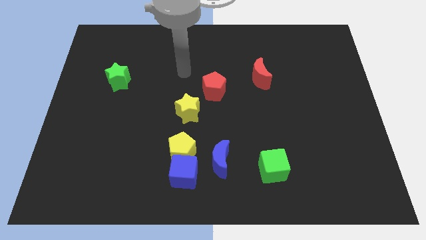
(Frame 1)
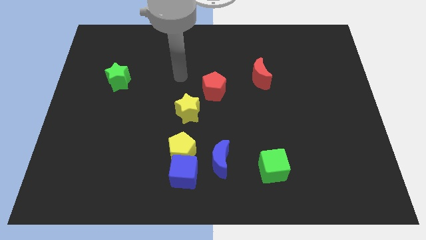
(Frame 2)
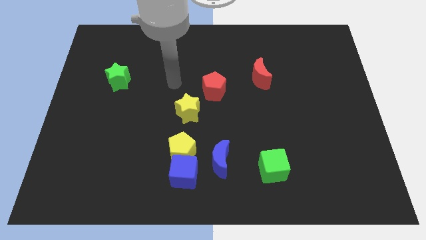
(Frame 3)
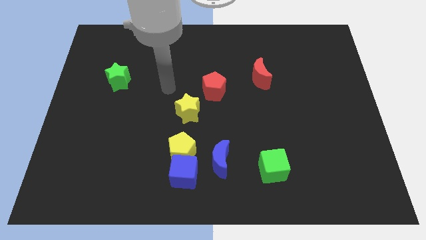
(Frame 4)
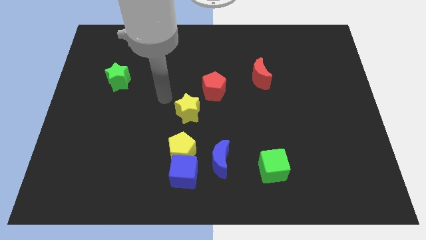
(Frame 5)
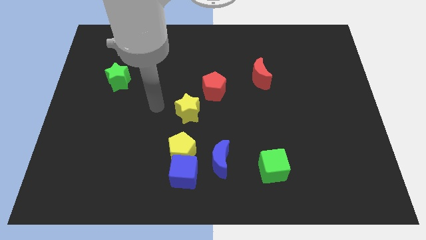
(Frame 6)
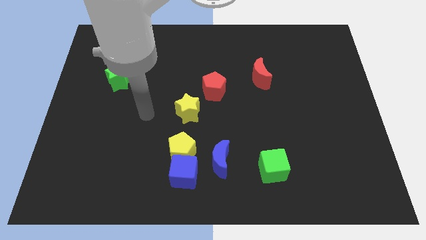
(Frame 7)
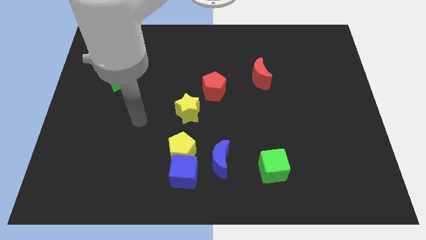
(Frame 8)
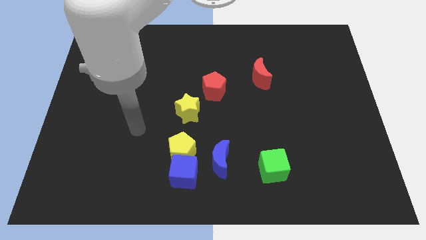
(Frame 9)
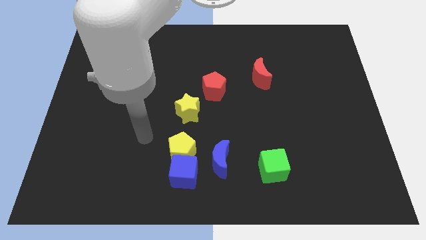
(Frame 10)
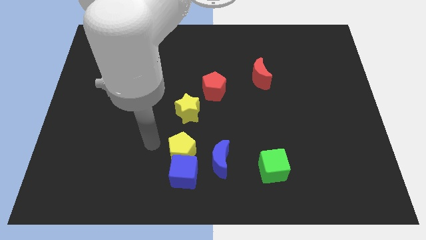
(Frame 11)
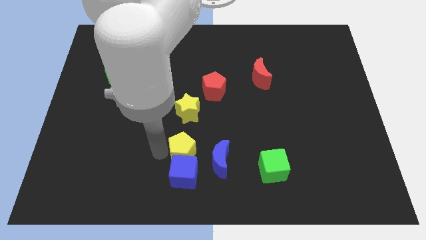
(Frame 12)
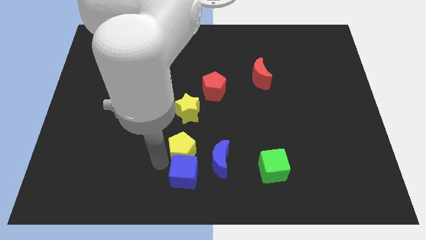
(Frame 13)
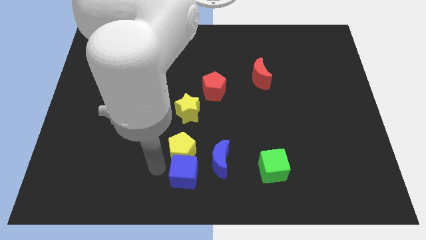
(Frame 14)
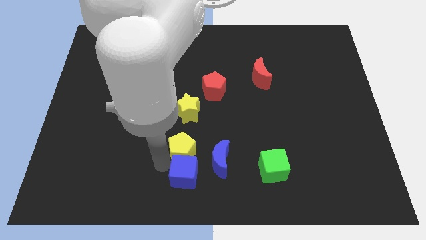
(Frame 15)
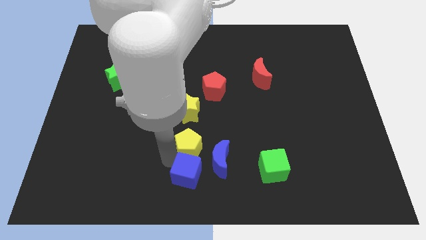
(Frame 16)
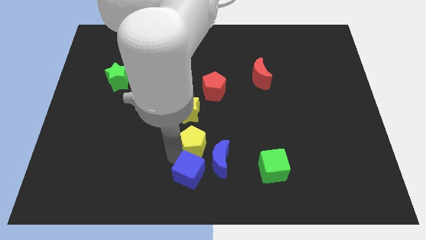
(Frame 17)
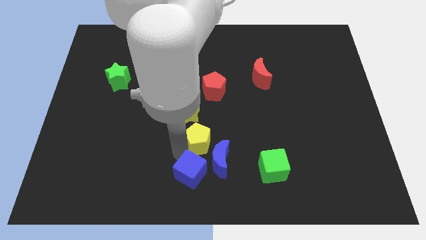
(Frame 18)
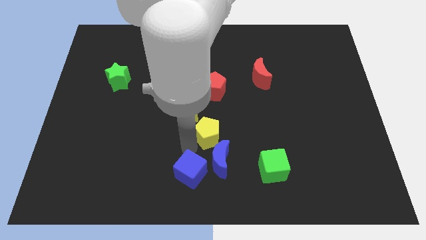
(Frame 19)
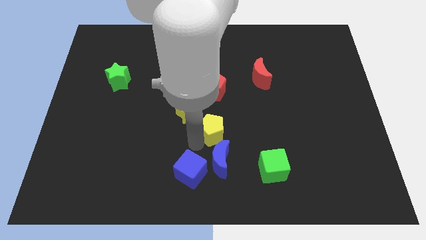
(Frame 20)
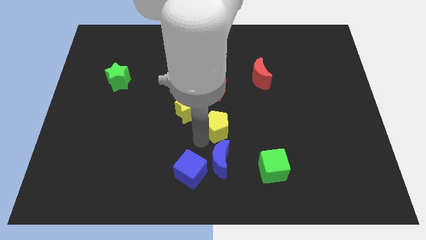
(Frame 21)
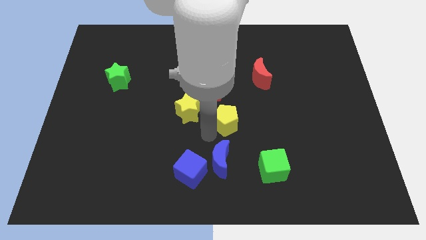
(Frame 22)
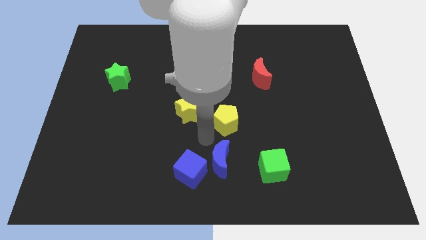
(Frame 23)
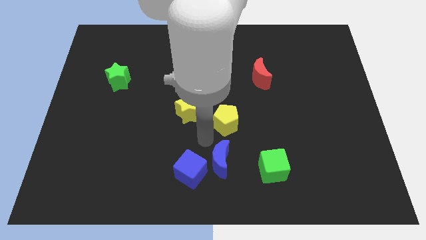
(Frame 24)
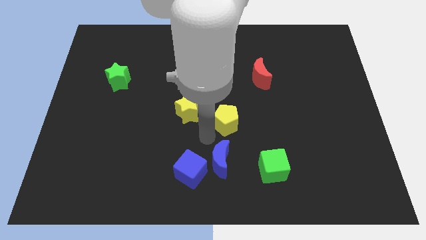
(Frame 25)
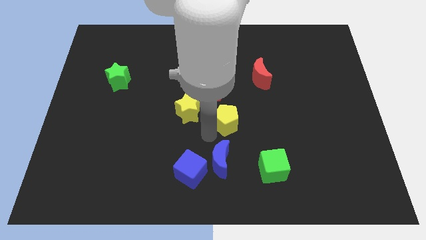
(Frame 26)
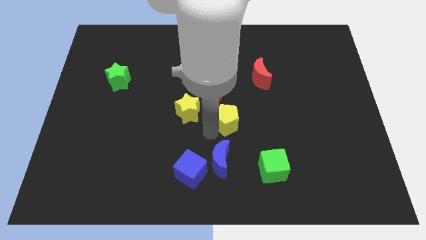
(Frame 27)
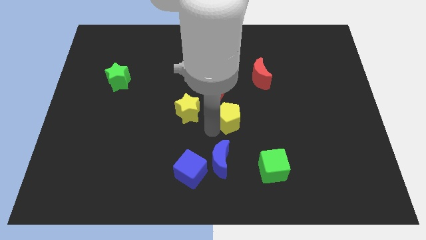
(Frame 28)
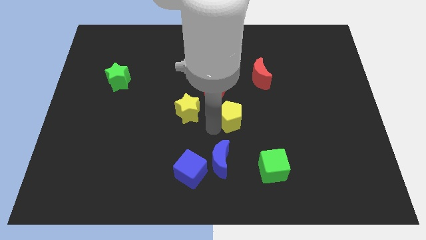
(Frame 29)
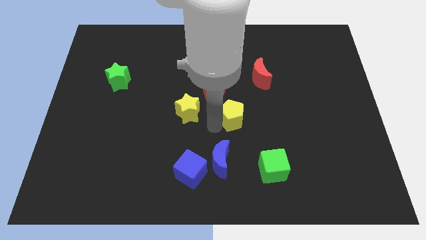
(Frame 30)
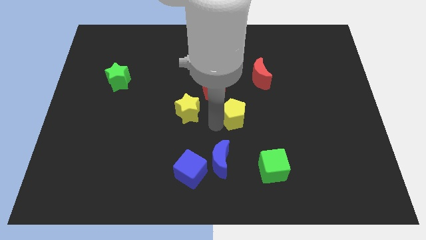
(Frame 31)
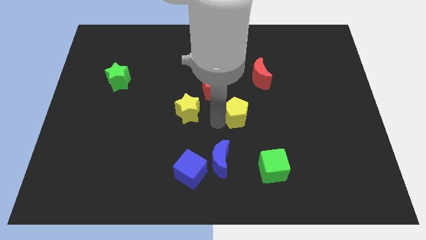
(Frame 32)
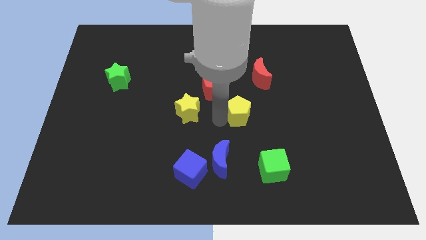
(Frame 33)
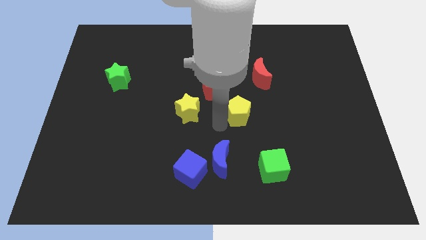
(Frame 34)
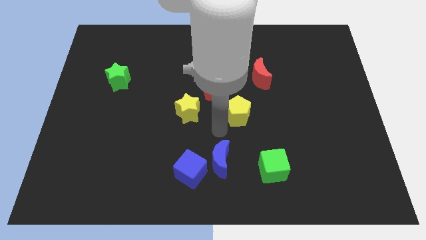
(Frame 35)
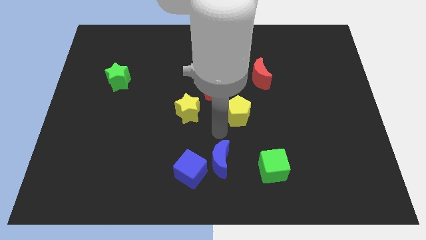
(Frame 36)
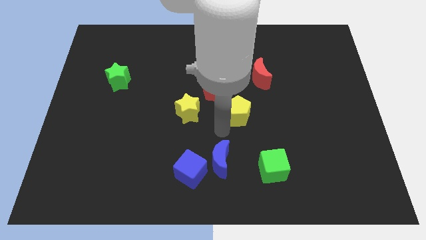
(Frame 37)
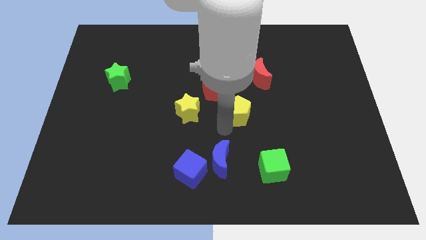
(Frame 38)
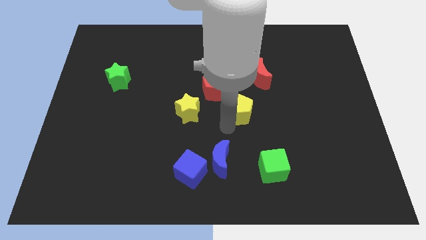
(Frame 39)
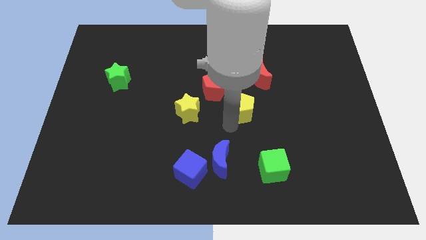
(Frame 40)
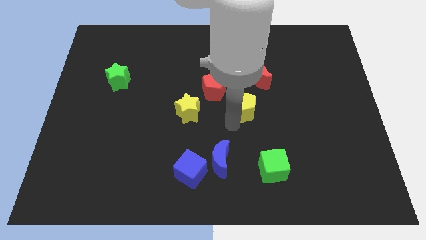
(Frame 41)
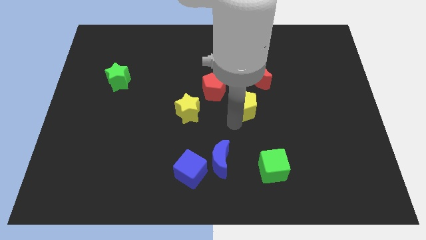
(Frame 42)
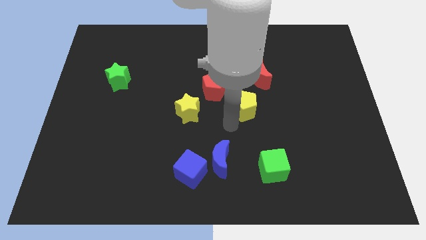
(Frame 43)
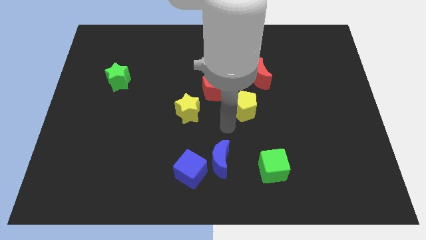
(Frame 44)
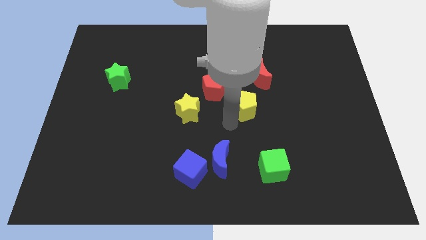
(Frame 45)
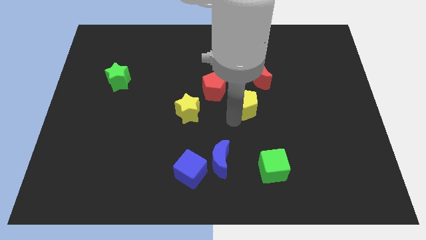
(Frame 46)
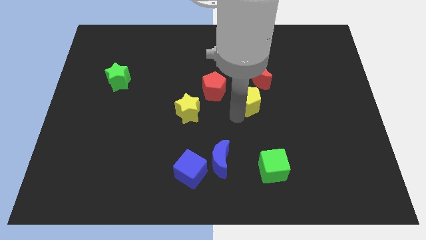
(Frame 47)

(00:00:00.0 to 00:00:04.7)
push the yellow pentagon diagonally up and to the right

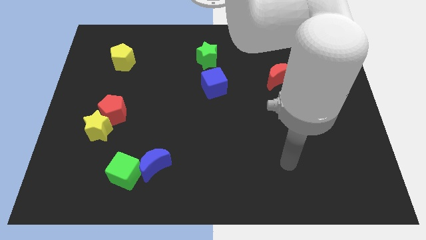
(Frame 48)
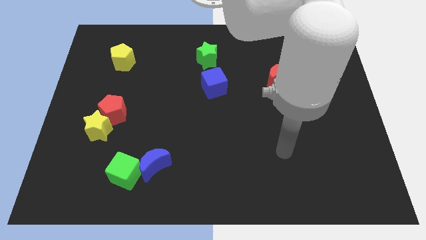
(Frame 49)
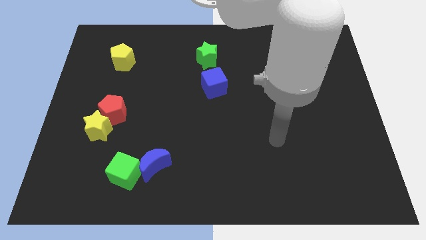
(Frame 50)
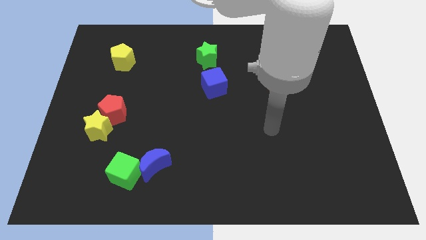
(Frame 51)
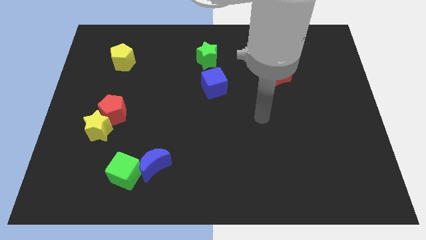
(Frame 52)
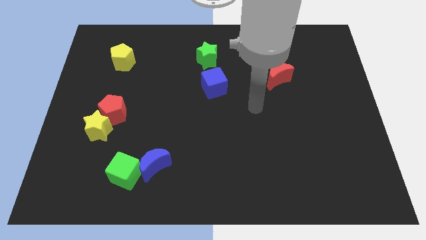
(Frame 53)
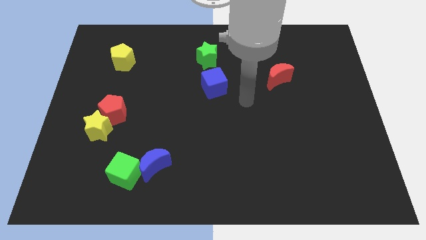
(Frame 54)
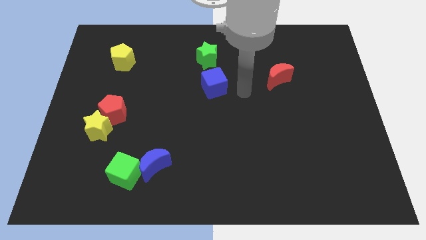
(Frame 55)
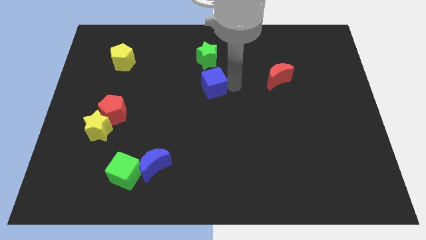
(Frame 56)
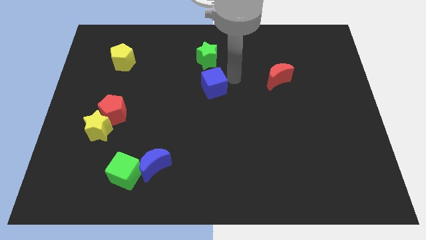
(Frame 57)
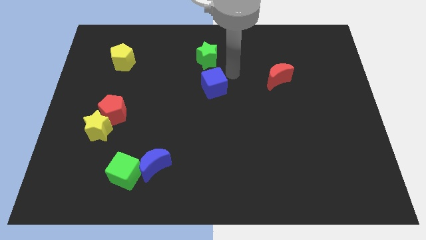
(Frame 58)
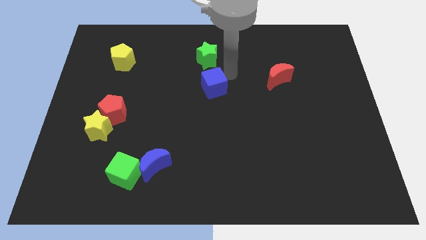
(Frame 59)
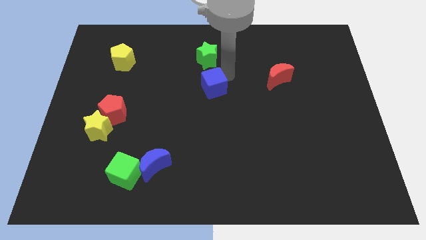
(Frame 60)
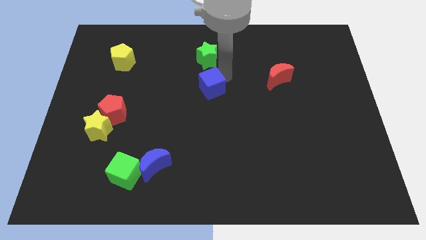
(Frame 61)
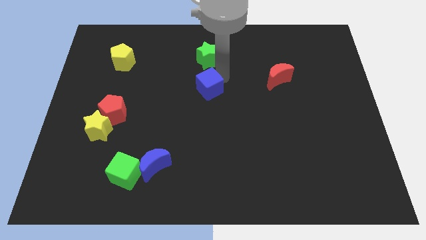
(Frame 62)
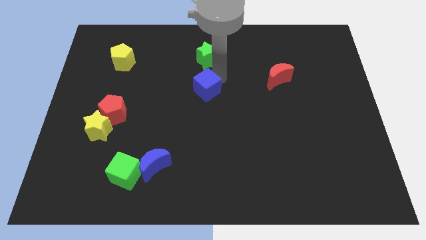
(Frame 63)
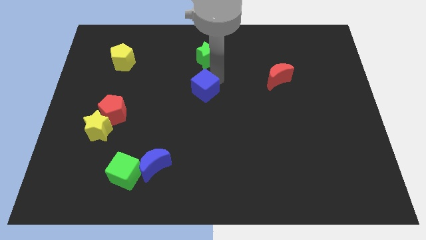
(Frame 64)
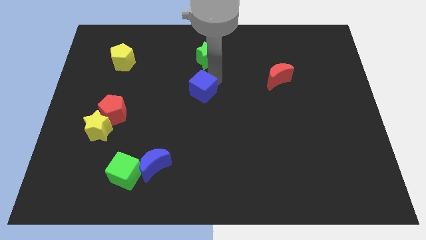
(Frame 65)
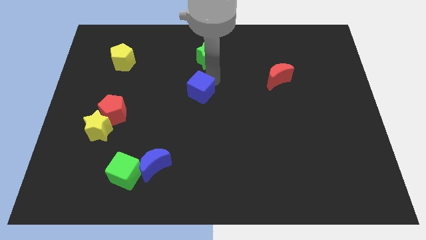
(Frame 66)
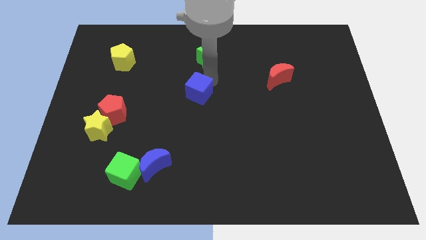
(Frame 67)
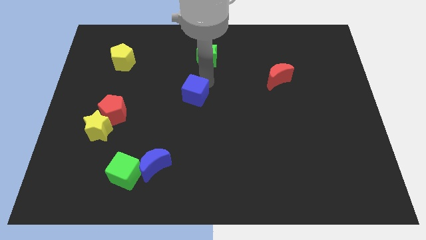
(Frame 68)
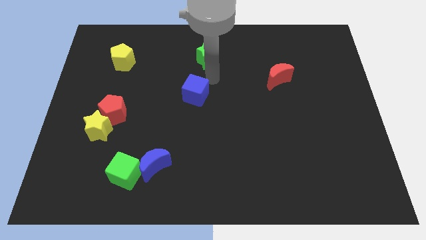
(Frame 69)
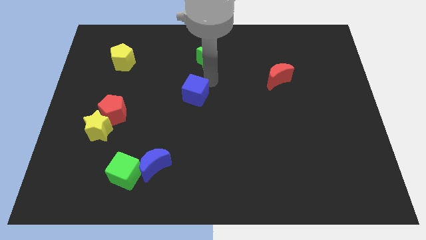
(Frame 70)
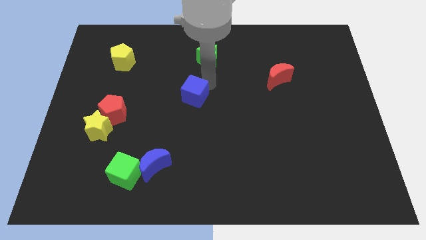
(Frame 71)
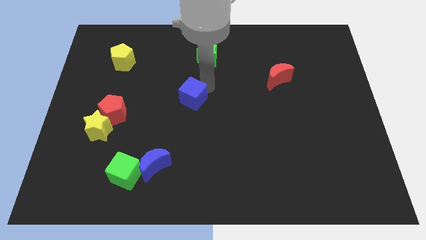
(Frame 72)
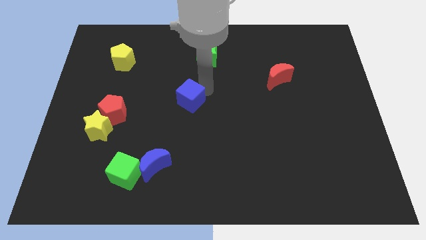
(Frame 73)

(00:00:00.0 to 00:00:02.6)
slide the blue cube down and to the left diagonally a little bit

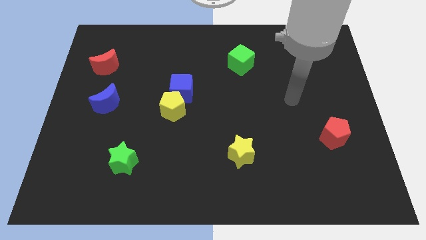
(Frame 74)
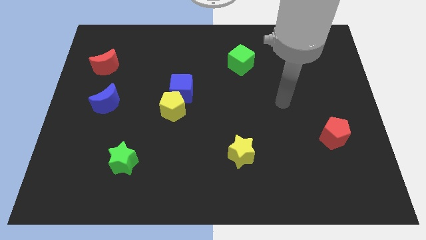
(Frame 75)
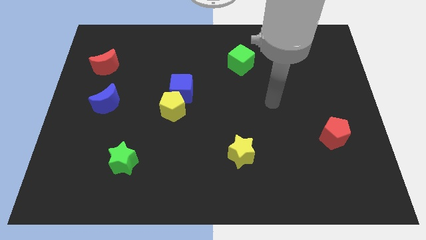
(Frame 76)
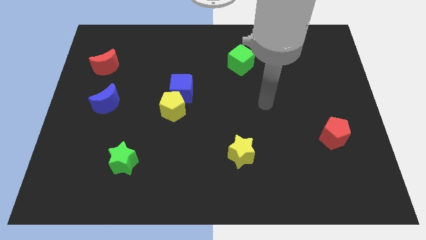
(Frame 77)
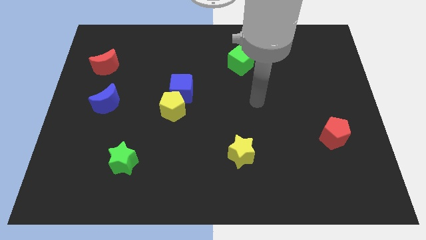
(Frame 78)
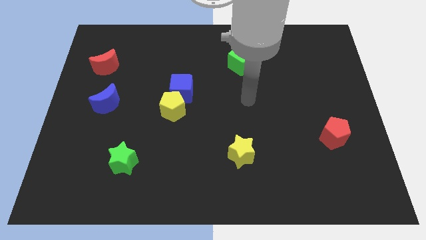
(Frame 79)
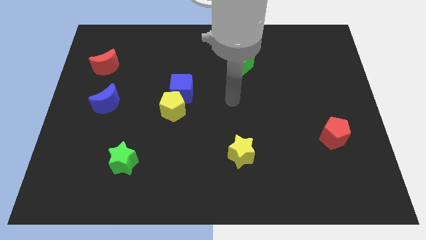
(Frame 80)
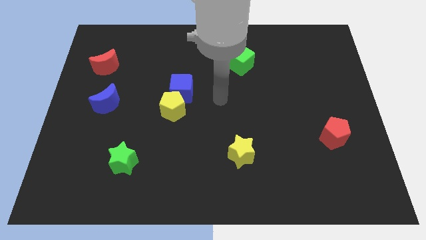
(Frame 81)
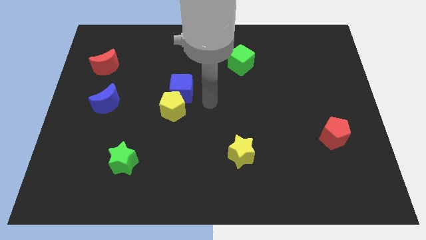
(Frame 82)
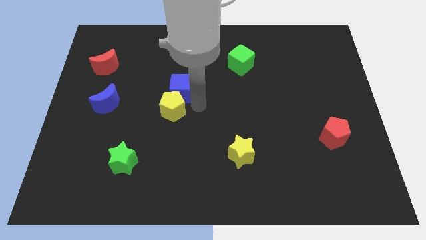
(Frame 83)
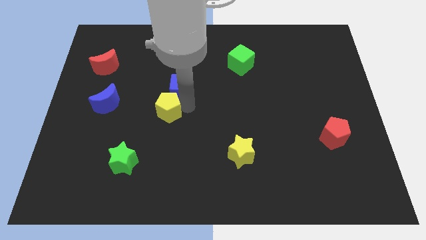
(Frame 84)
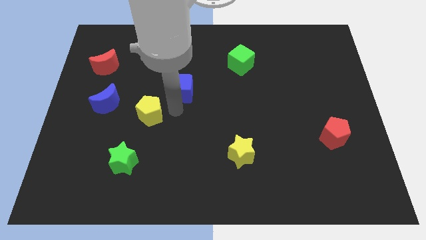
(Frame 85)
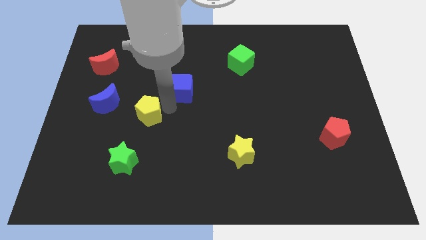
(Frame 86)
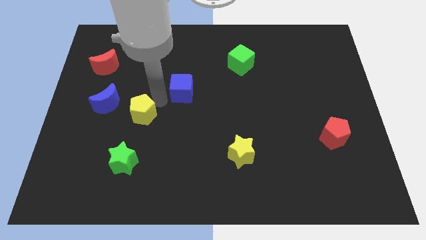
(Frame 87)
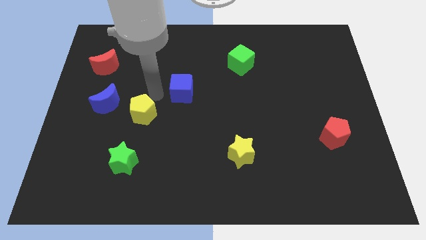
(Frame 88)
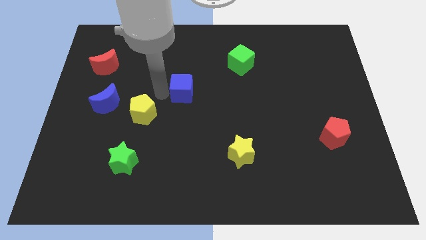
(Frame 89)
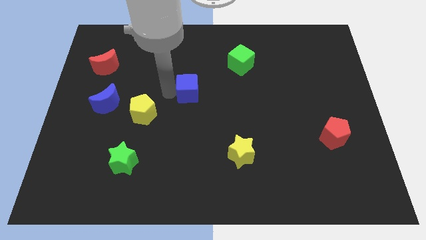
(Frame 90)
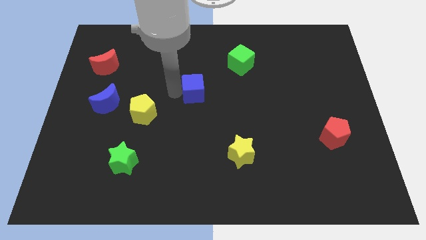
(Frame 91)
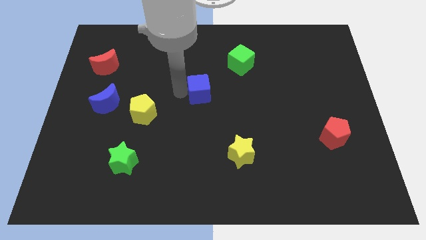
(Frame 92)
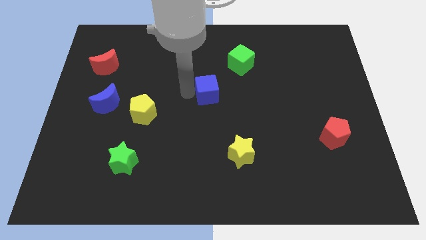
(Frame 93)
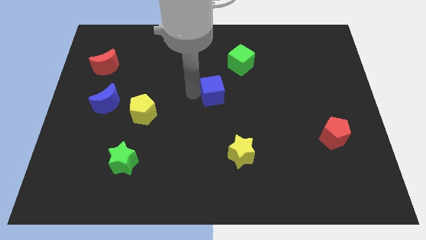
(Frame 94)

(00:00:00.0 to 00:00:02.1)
slide the blue cube a little bit to the right
